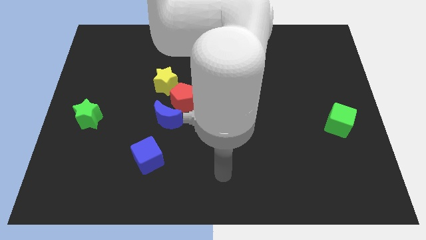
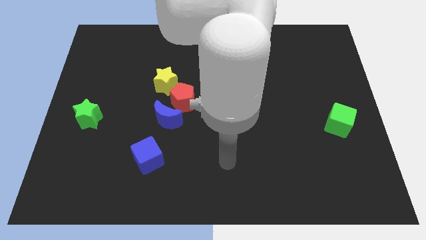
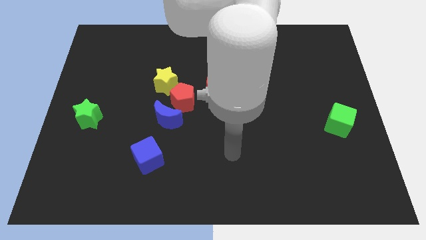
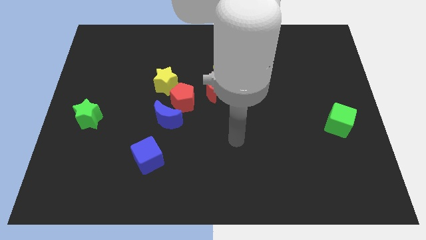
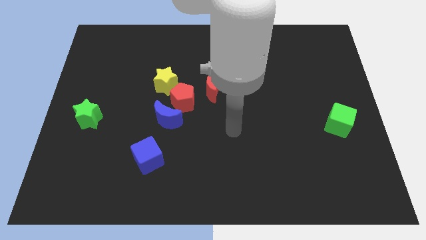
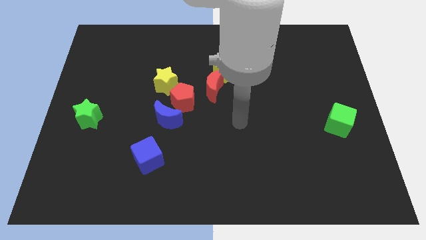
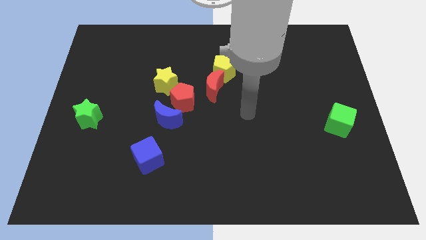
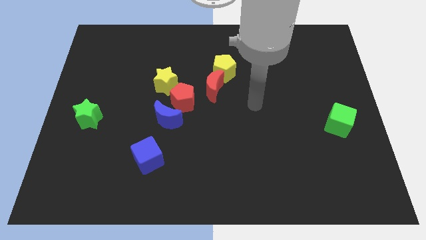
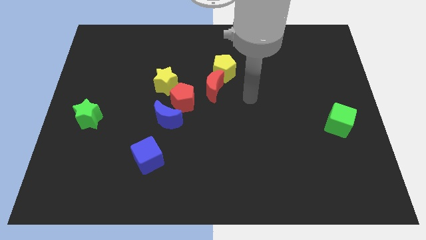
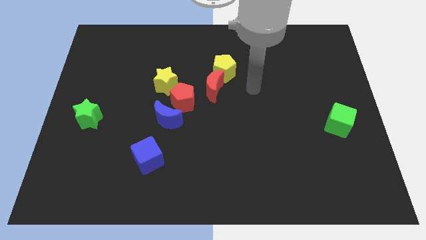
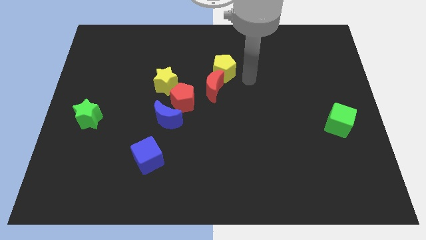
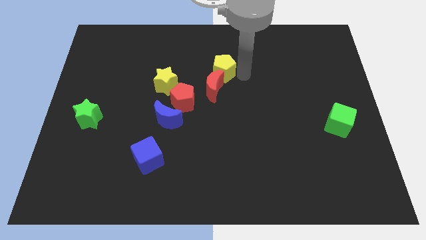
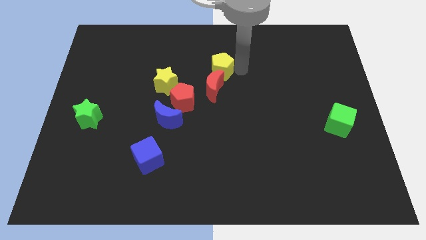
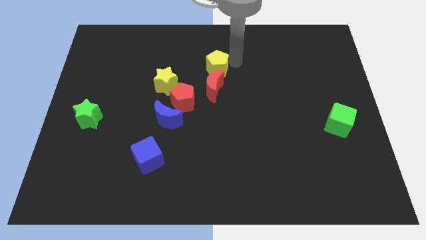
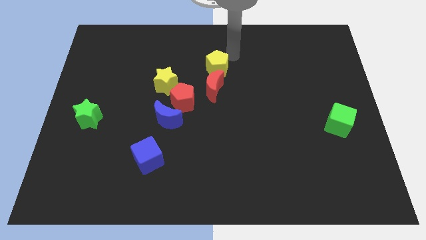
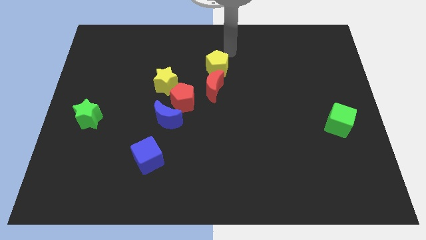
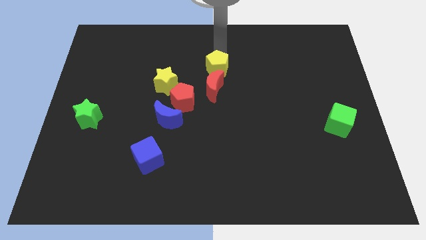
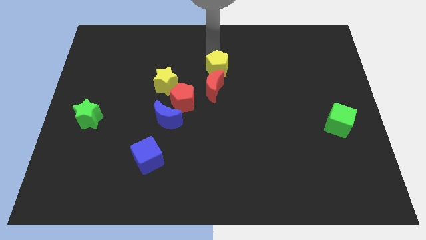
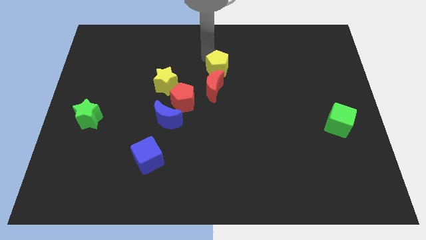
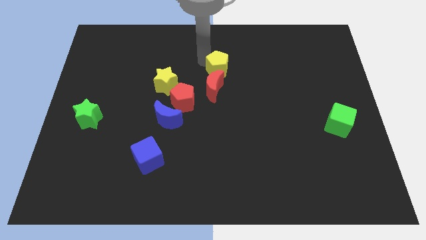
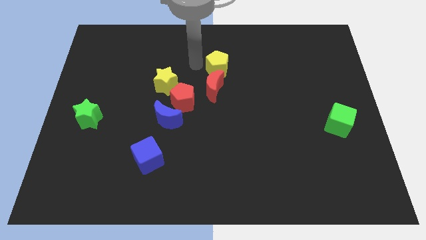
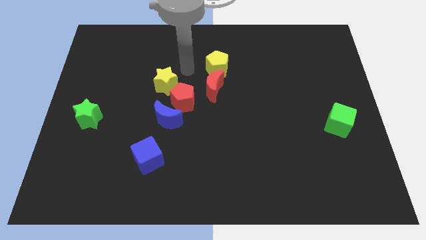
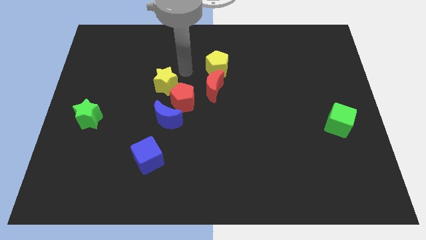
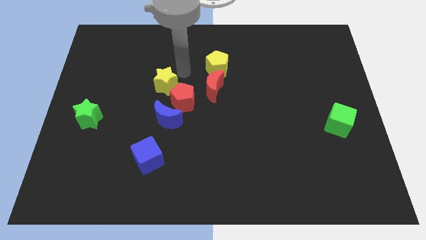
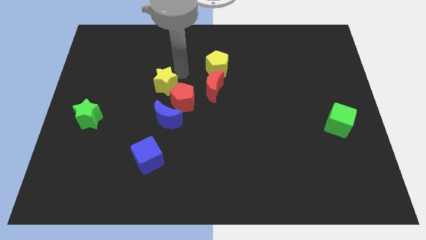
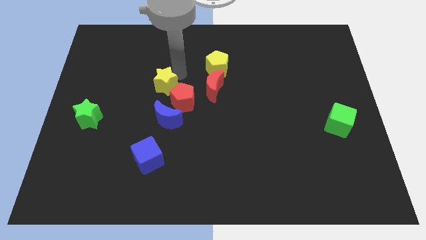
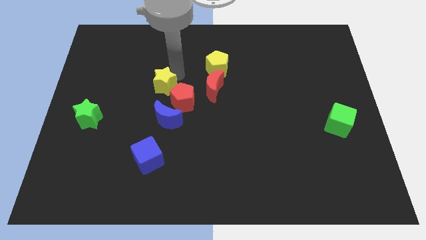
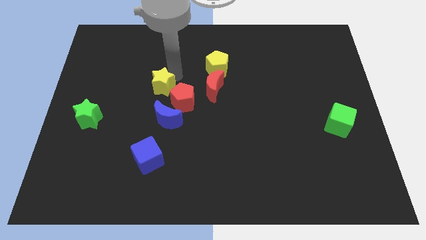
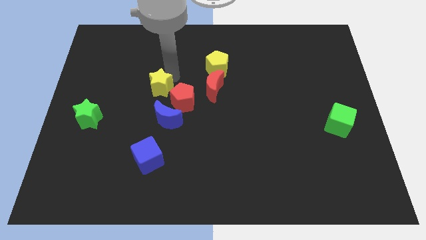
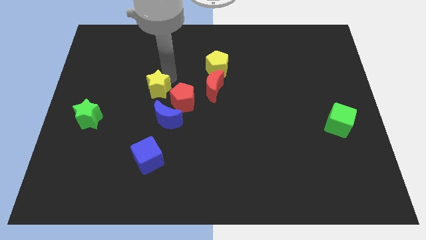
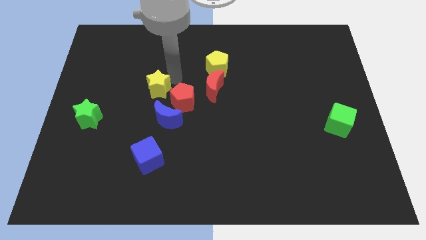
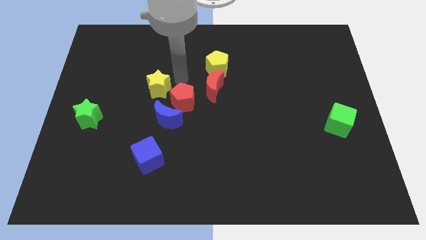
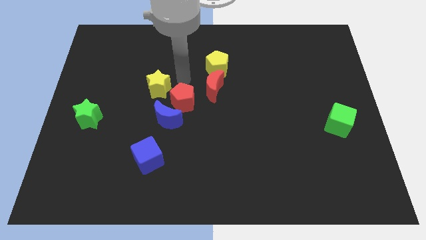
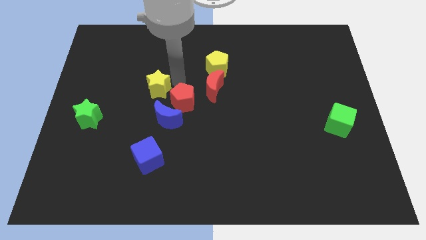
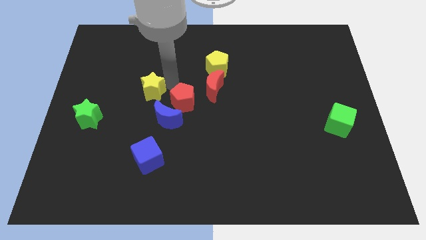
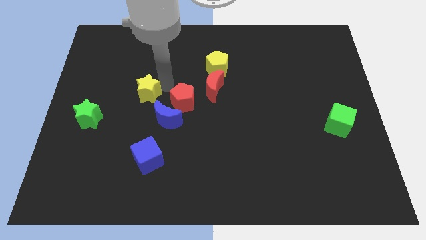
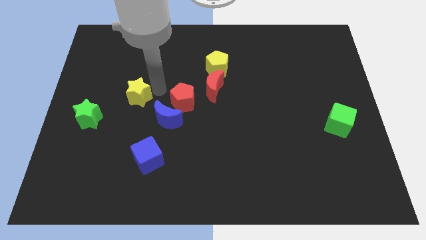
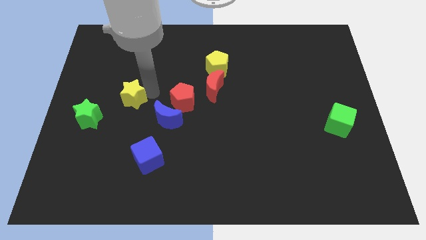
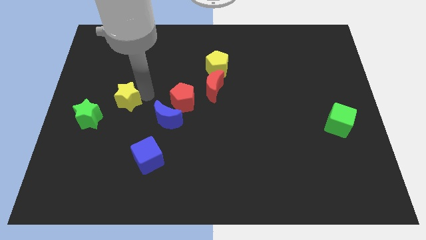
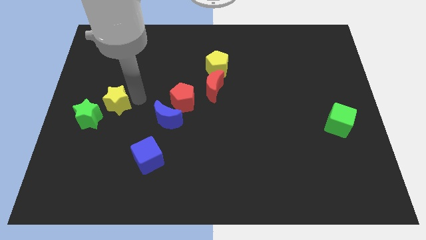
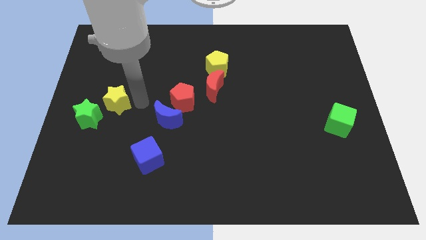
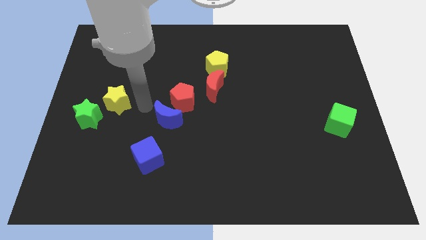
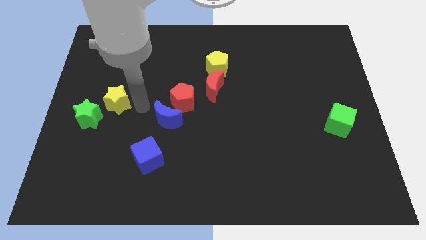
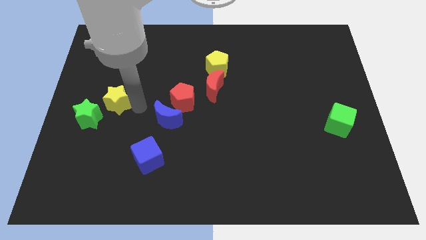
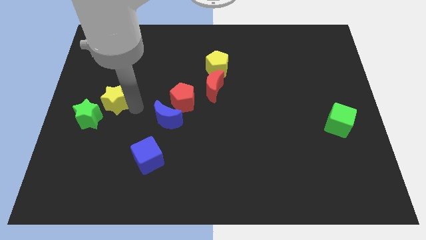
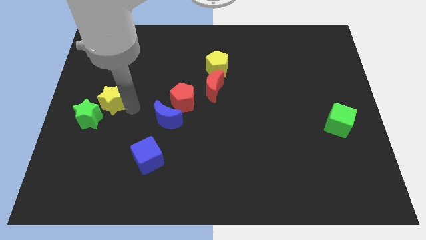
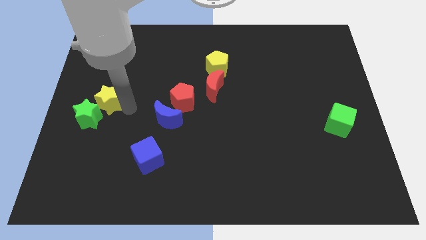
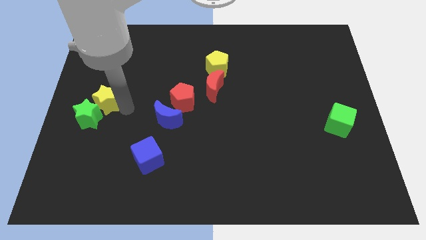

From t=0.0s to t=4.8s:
move the yellow star to the center left

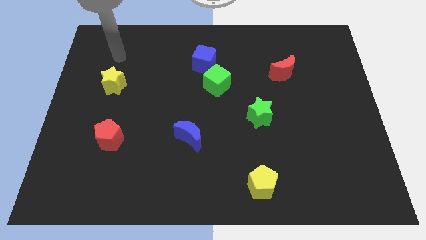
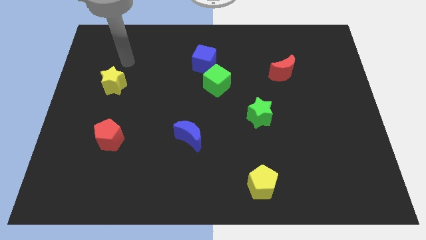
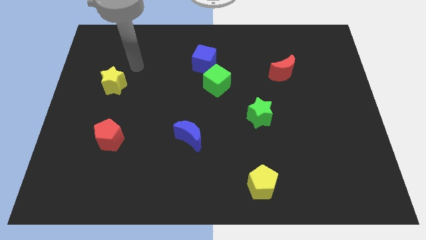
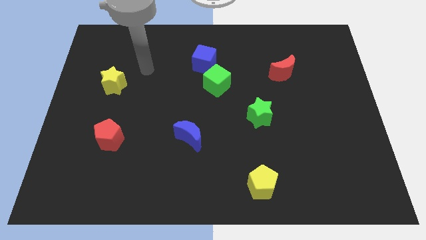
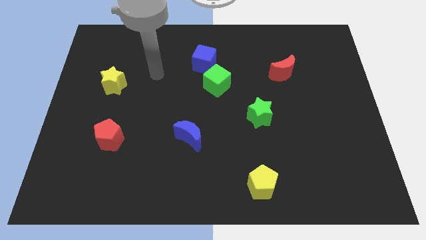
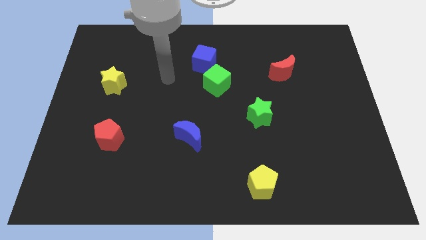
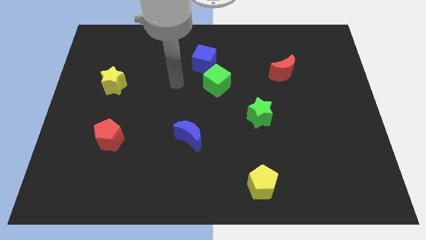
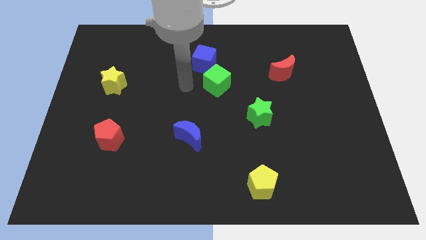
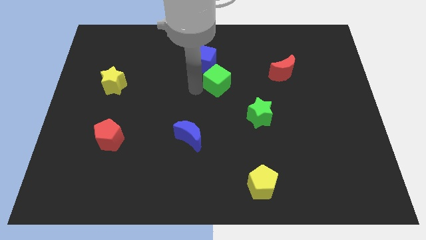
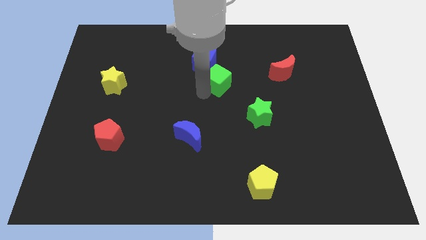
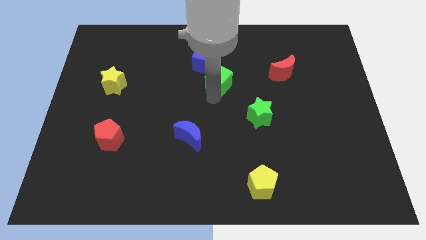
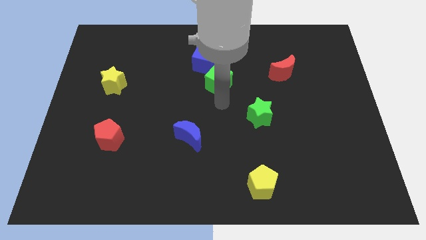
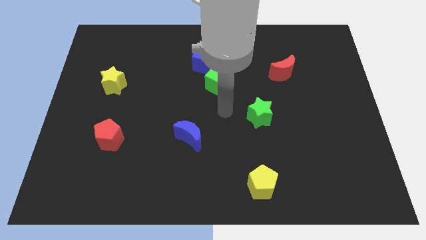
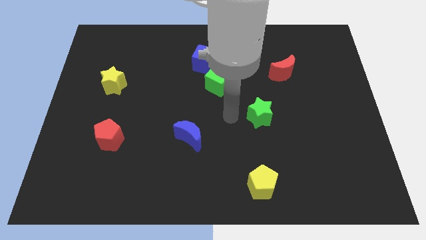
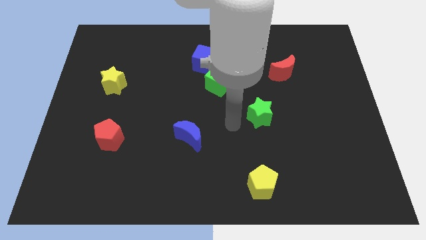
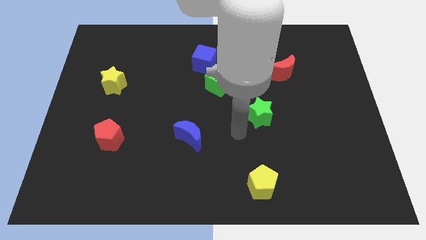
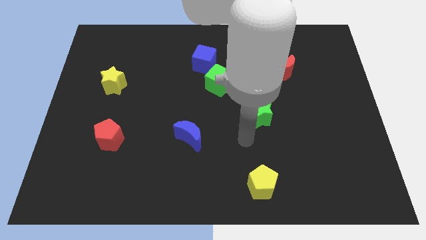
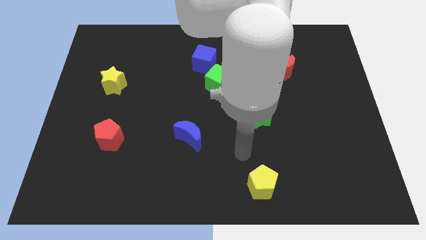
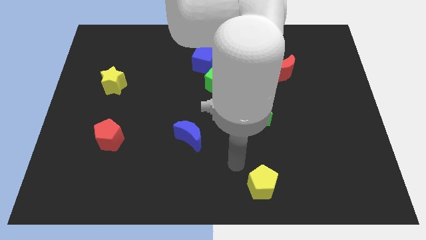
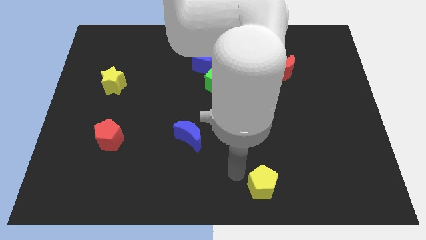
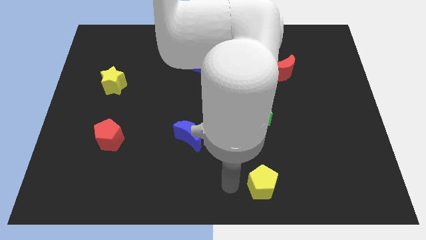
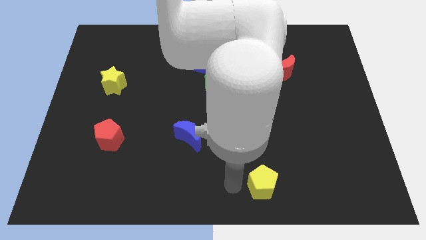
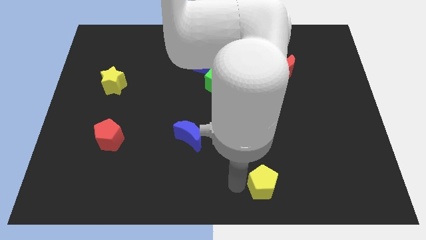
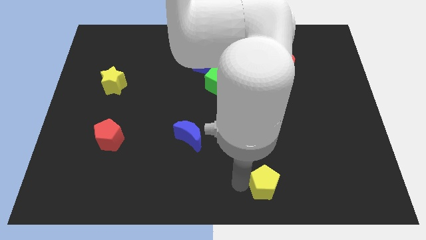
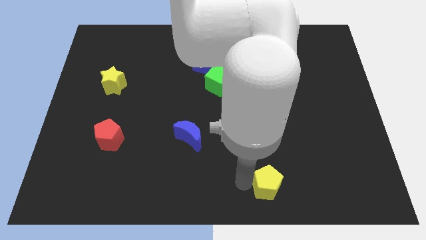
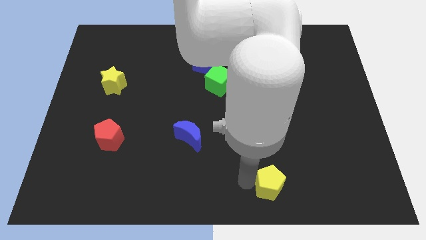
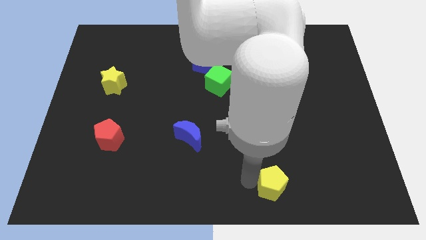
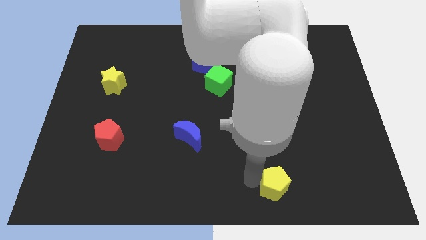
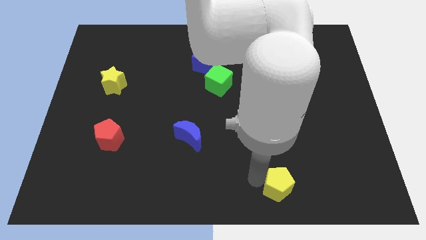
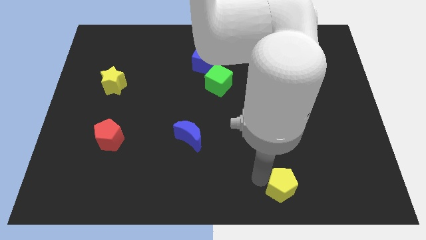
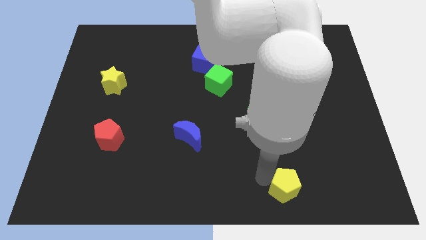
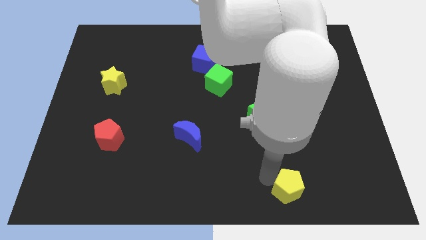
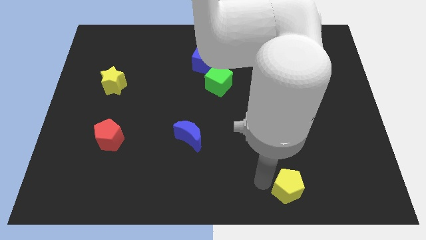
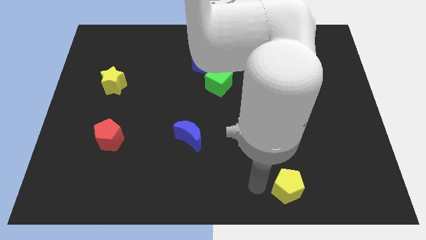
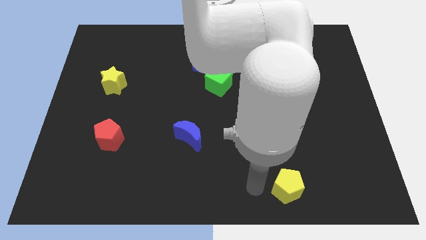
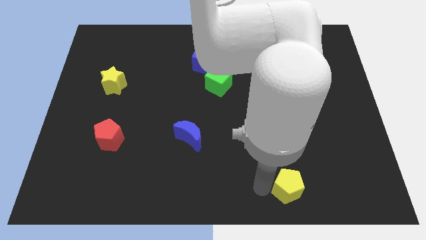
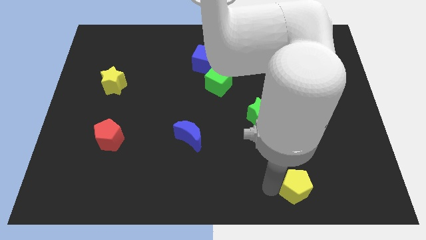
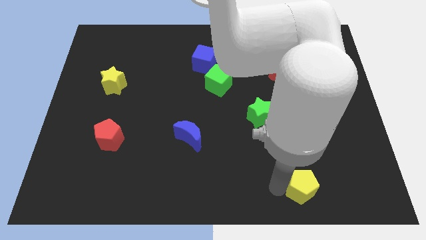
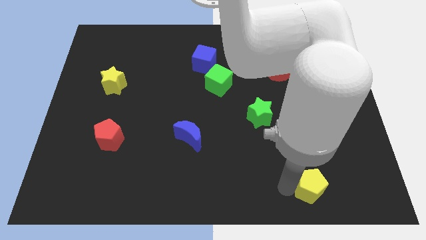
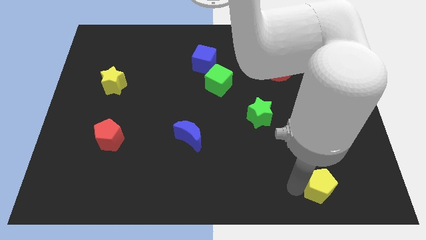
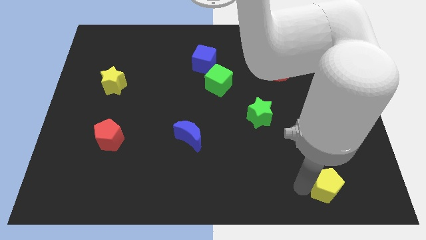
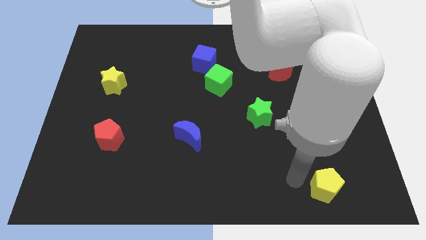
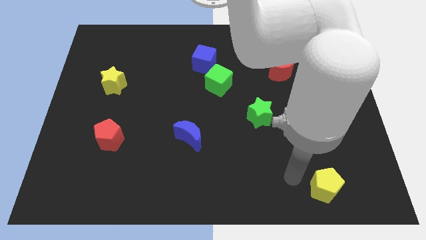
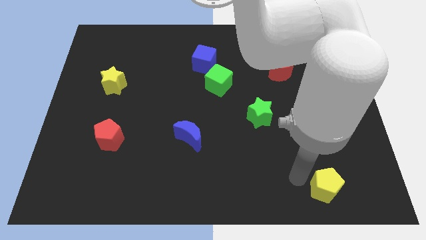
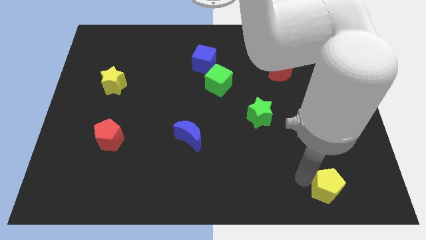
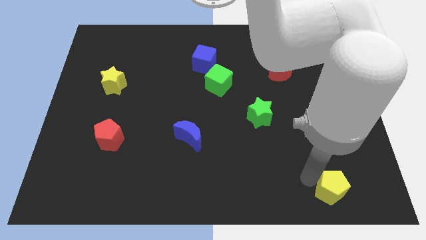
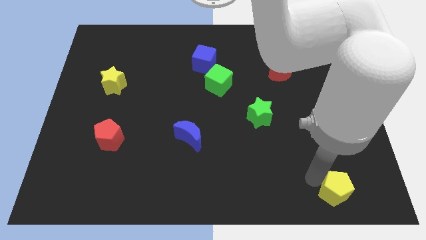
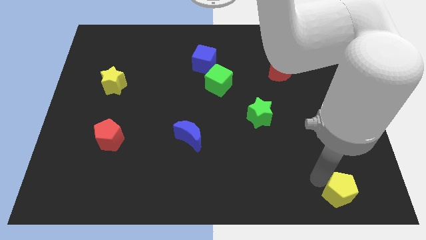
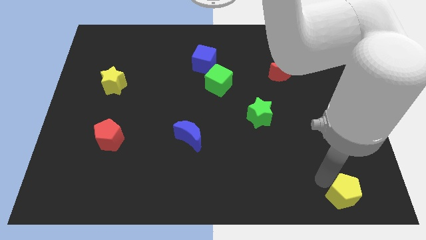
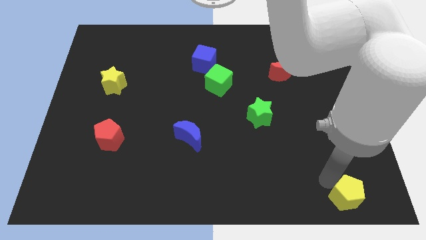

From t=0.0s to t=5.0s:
put the yellow pentagon to the bottom right corner
